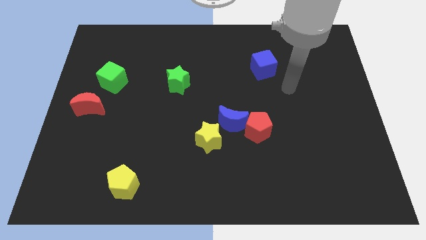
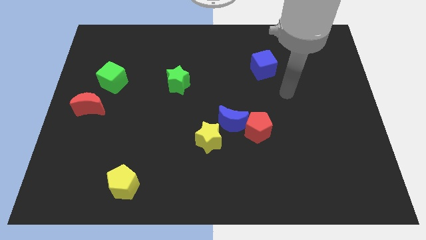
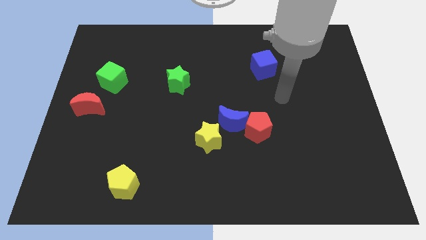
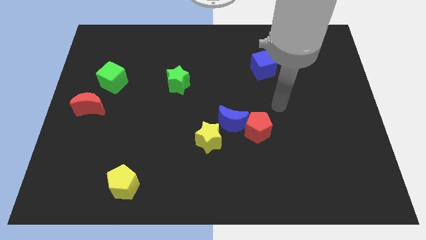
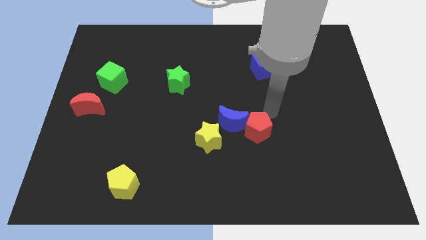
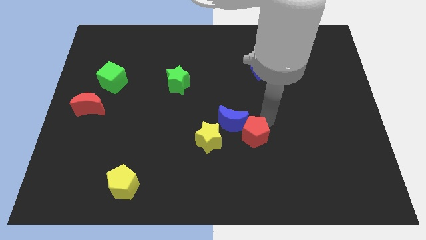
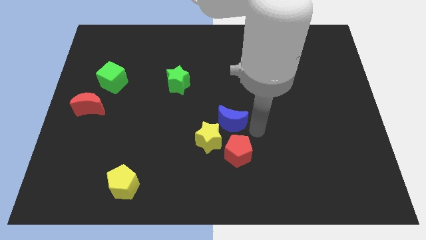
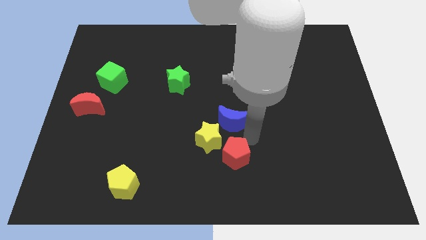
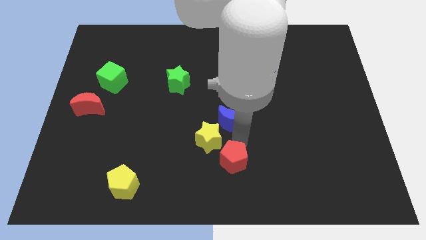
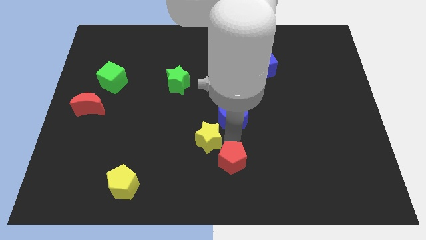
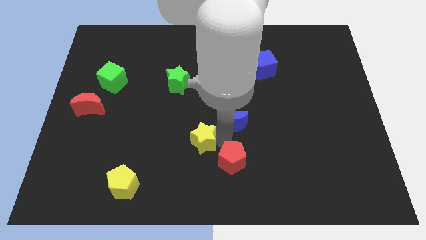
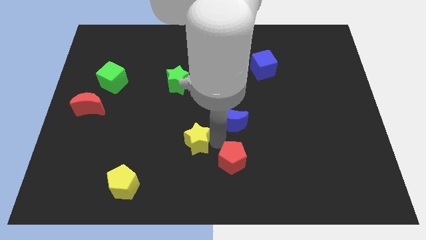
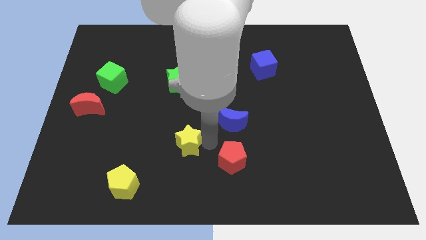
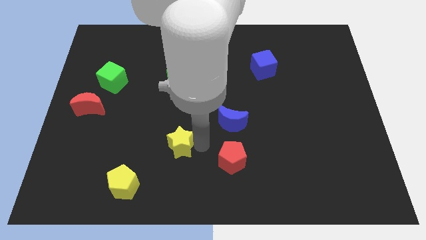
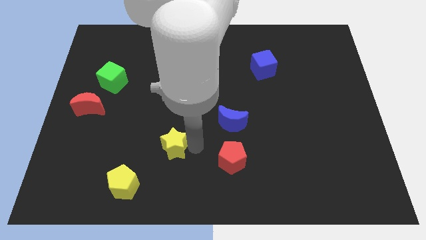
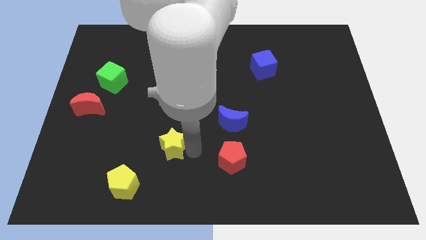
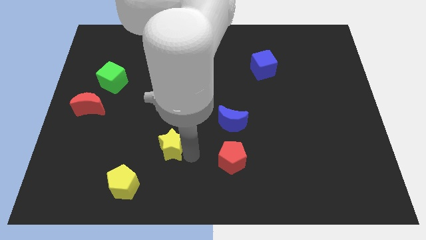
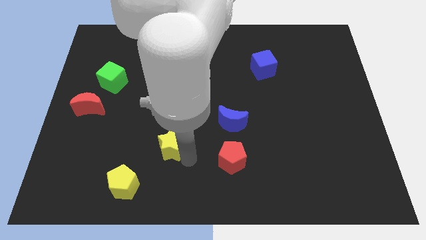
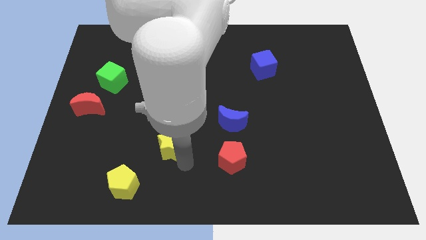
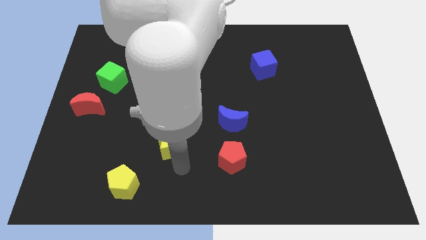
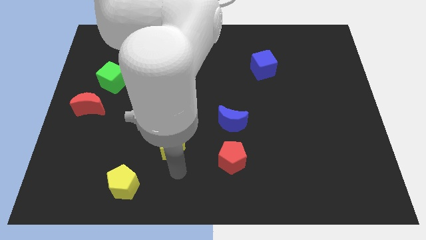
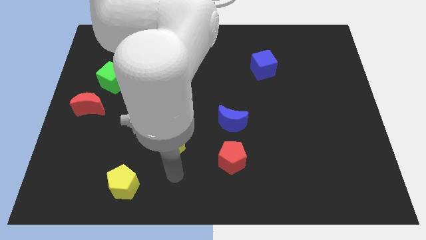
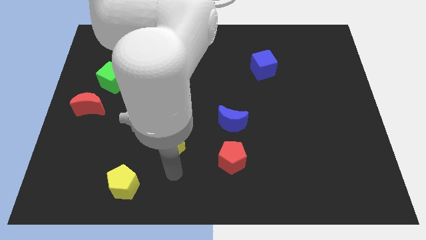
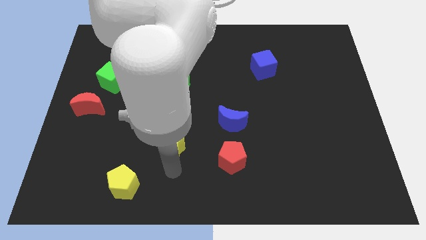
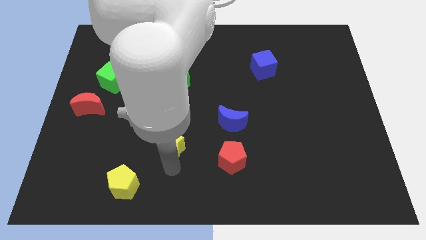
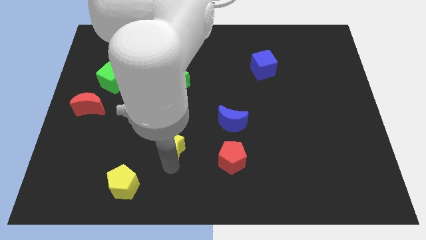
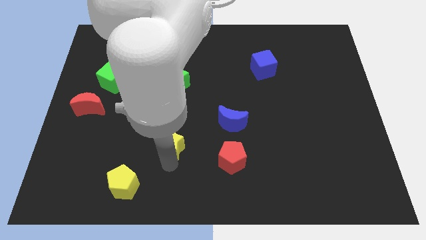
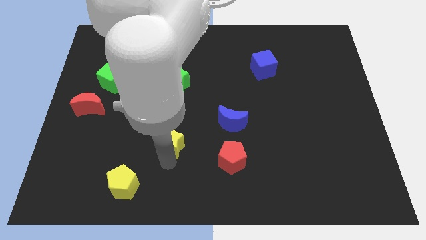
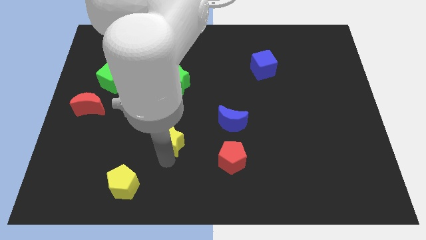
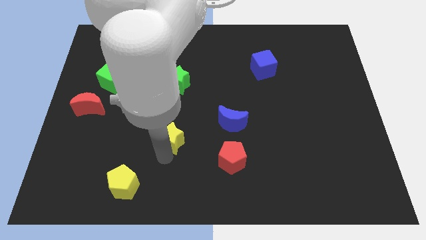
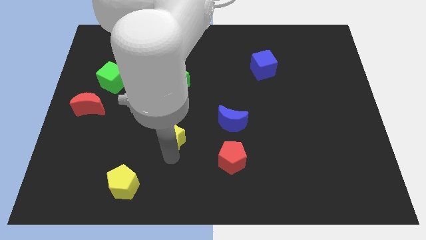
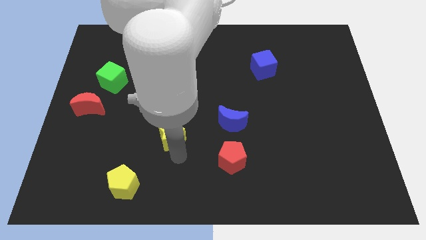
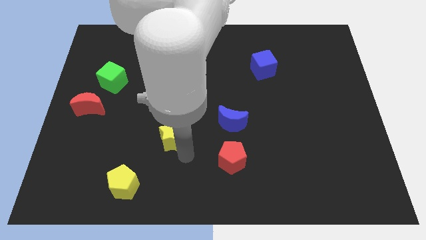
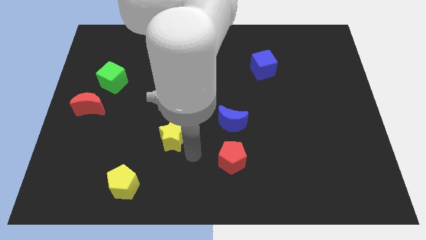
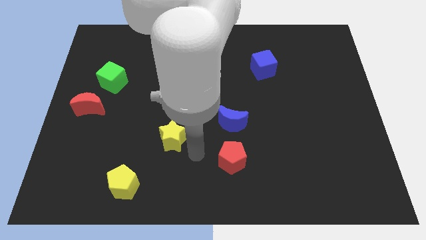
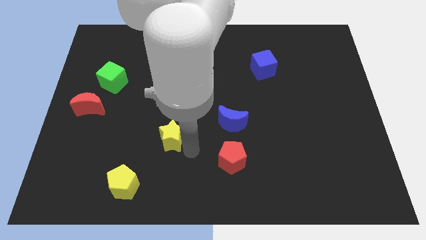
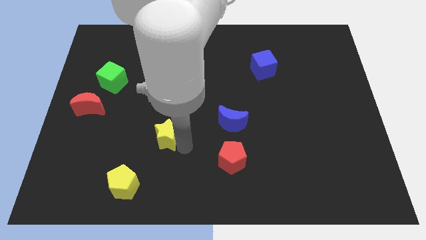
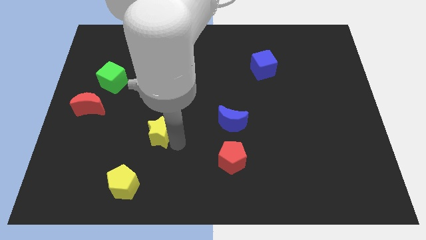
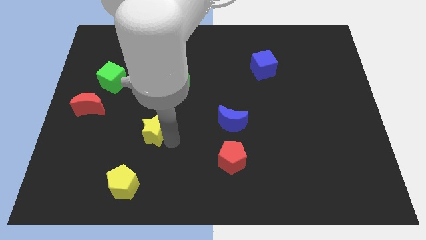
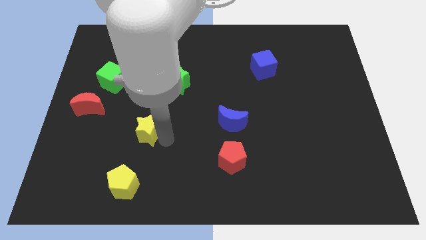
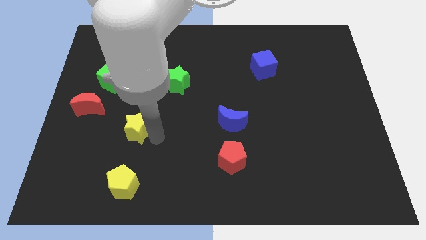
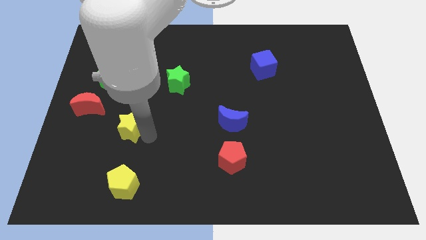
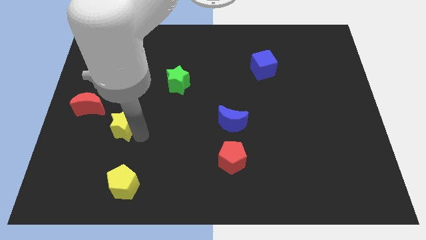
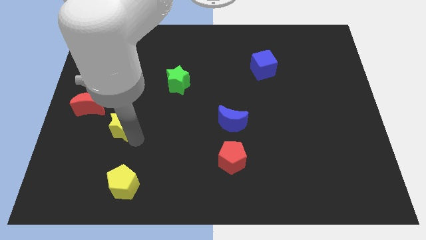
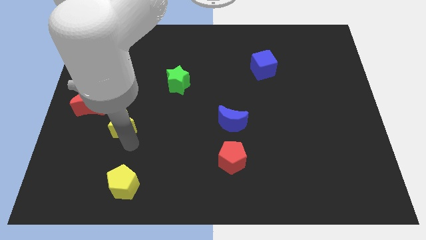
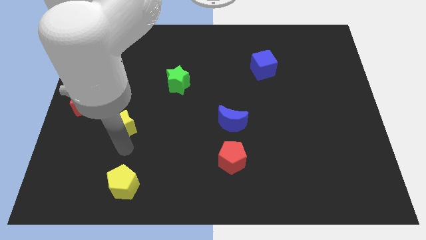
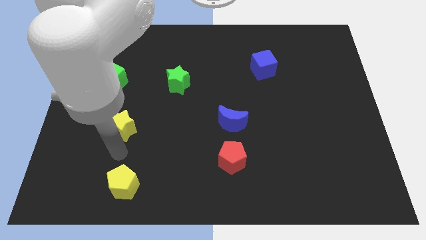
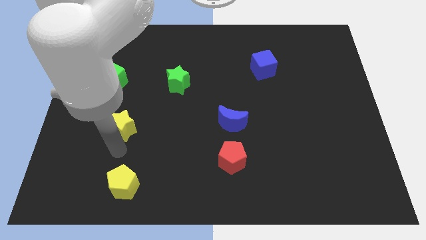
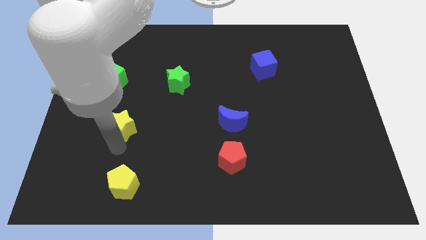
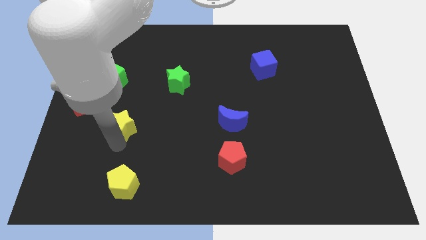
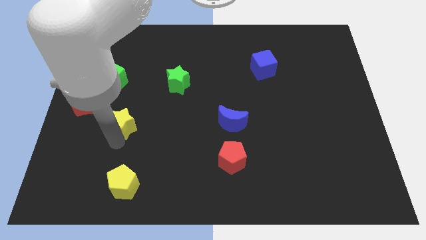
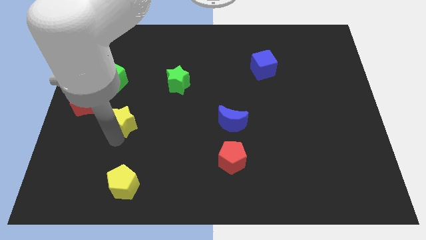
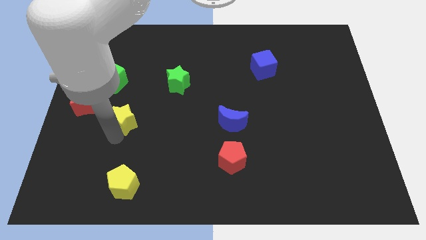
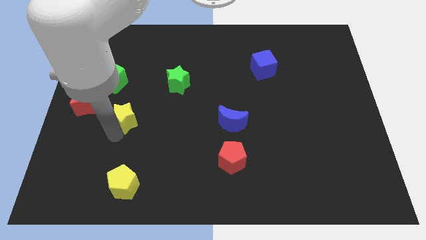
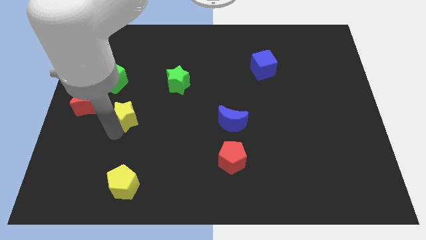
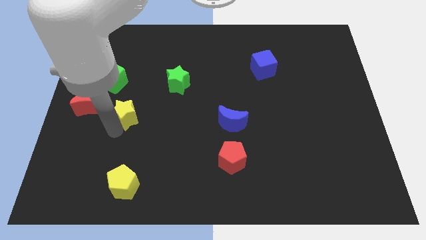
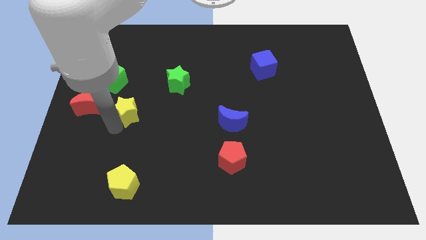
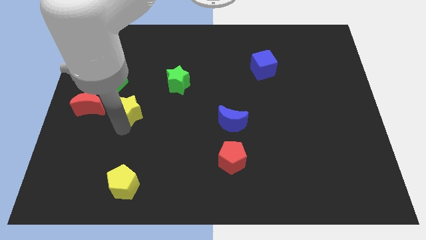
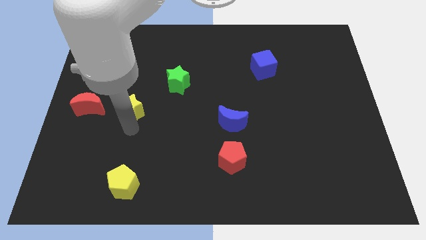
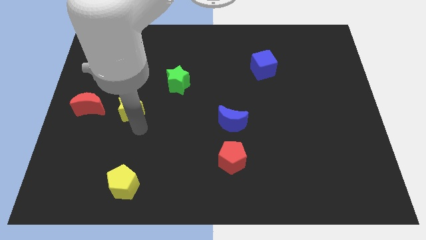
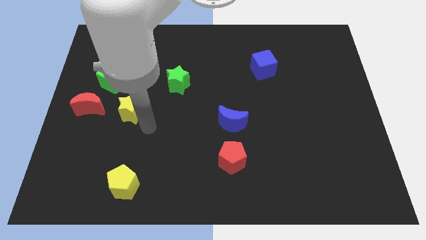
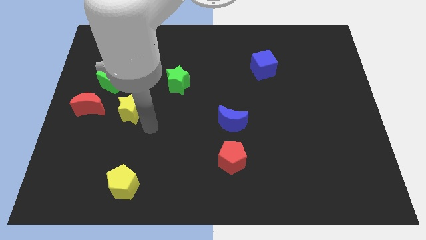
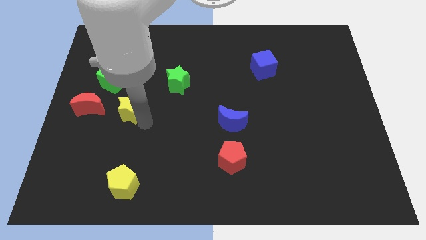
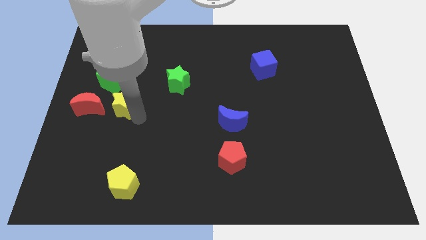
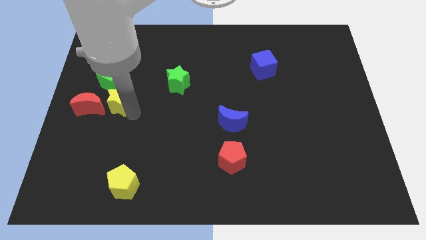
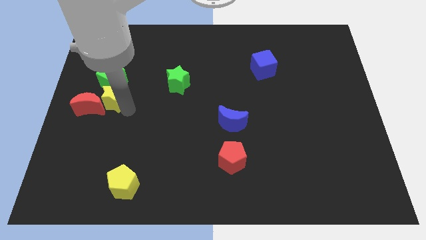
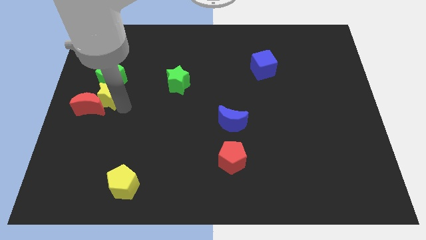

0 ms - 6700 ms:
push the yellow star to the top of the red moon
